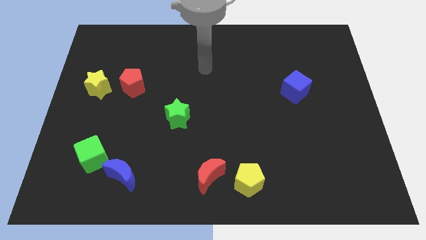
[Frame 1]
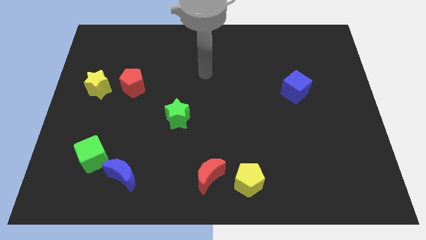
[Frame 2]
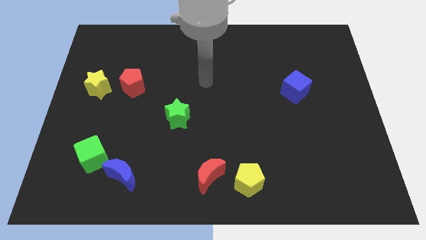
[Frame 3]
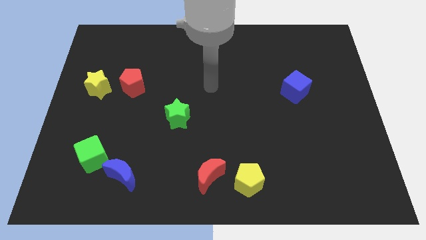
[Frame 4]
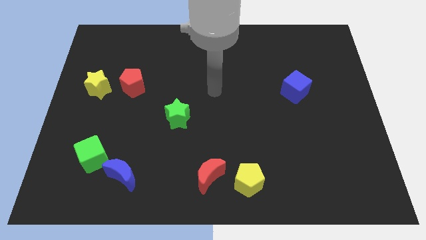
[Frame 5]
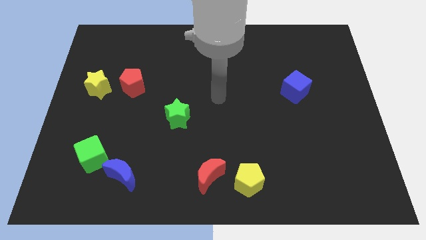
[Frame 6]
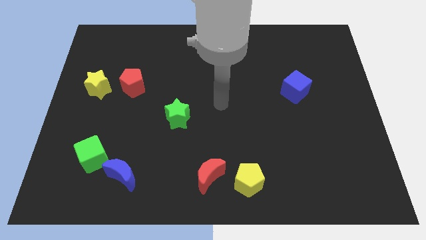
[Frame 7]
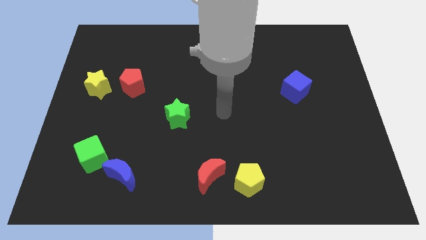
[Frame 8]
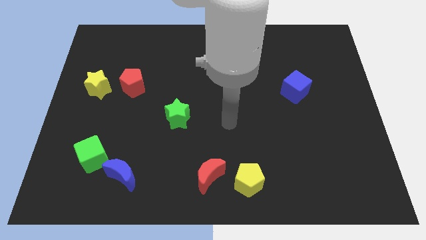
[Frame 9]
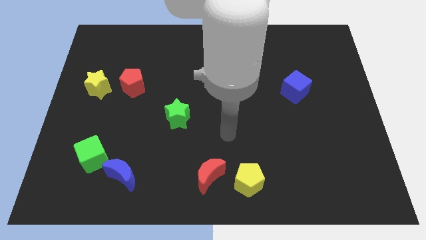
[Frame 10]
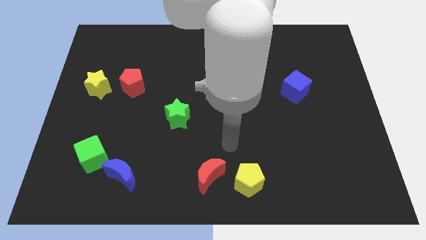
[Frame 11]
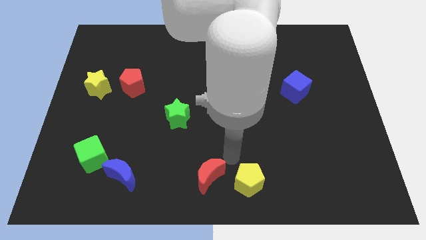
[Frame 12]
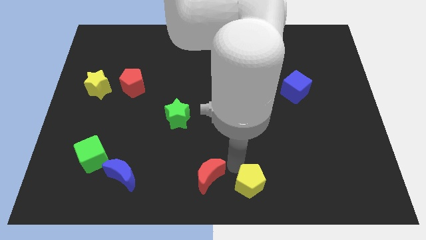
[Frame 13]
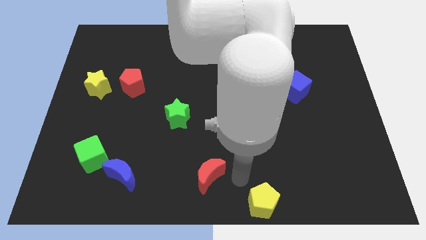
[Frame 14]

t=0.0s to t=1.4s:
move the red moon away from the yellow pentagon

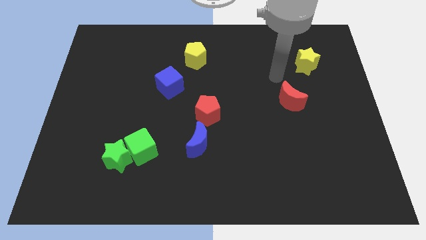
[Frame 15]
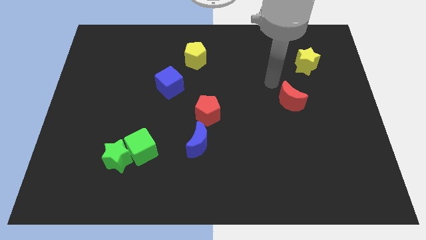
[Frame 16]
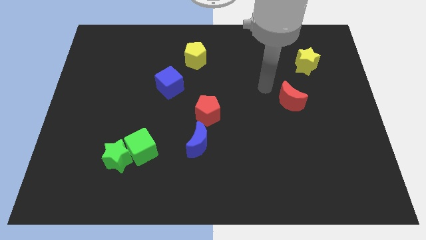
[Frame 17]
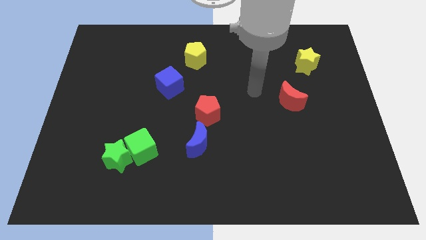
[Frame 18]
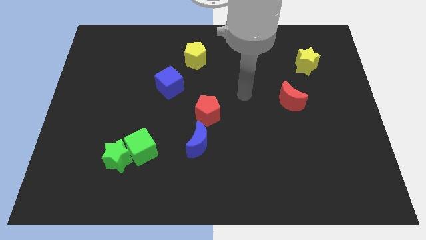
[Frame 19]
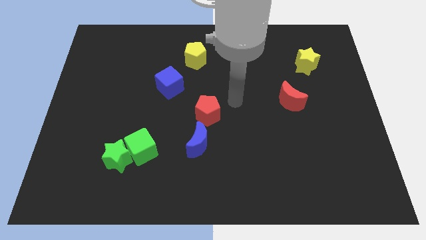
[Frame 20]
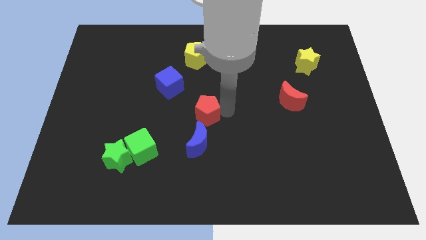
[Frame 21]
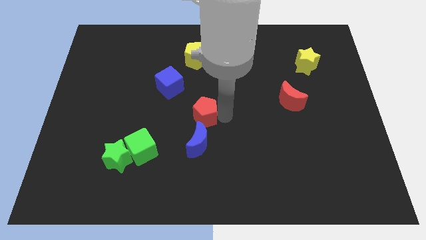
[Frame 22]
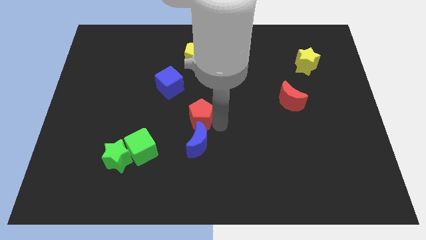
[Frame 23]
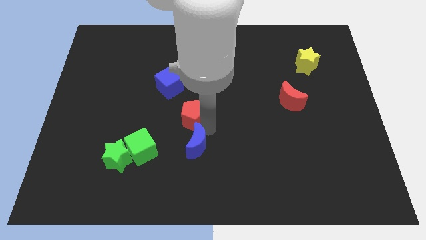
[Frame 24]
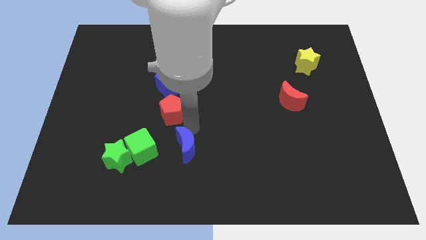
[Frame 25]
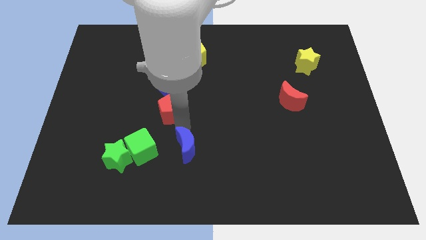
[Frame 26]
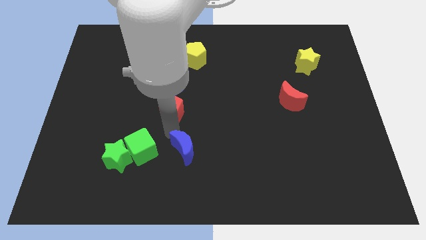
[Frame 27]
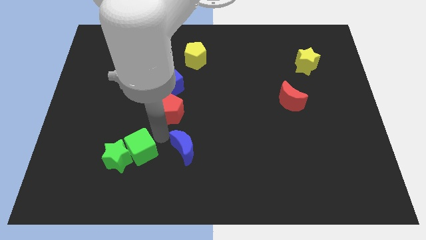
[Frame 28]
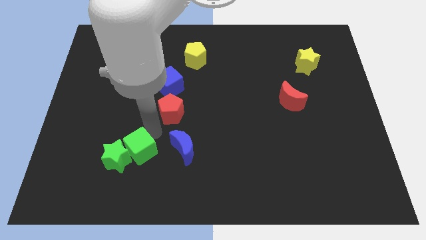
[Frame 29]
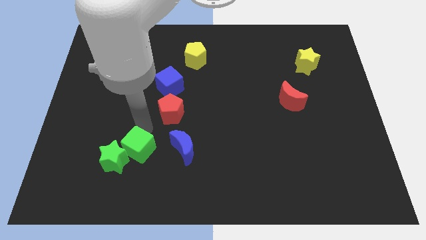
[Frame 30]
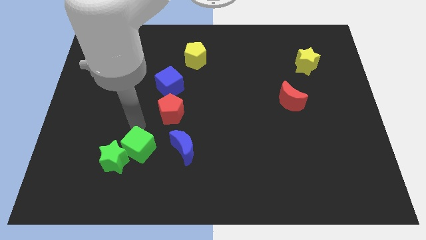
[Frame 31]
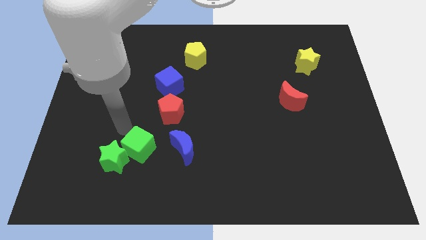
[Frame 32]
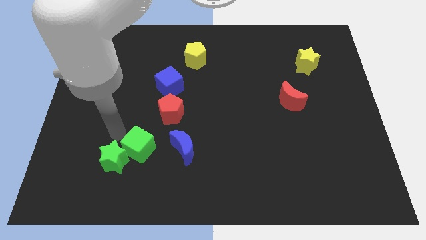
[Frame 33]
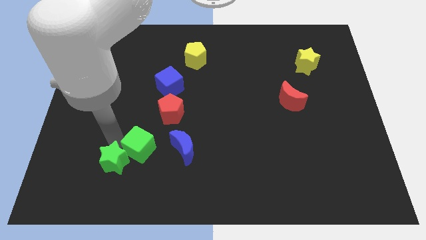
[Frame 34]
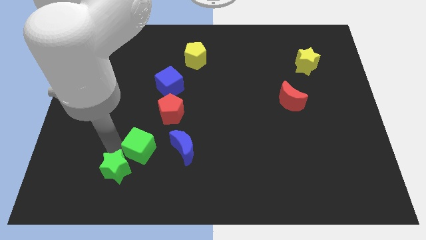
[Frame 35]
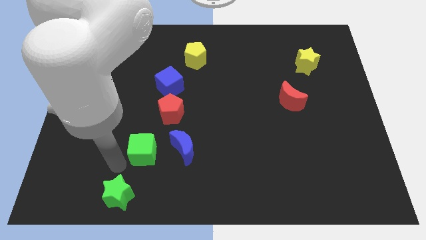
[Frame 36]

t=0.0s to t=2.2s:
move the green cube away from the green star

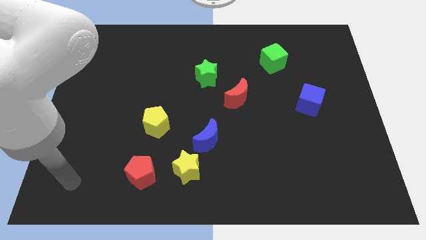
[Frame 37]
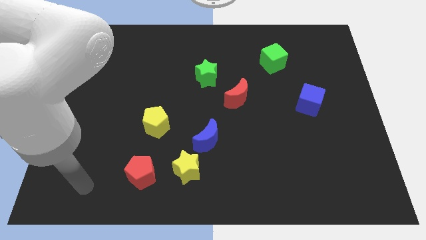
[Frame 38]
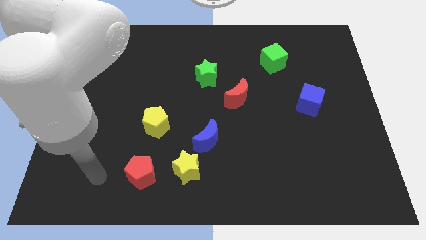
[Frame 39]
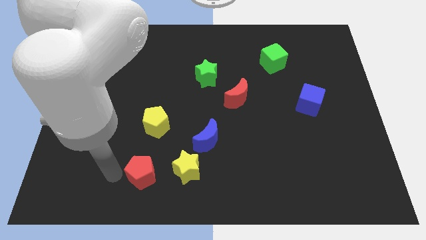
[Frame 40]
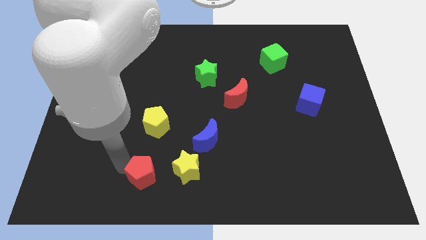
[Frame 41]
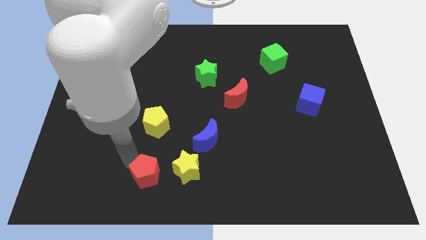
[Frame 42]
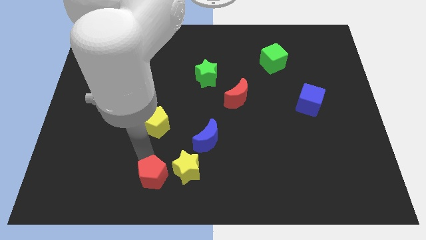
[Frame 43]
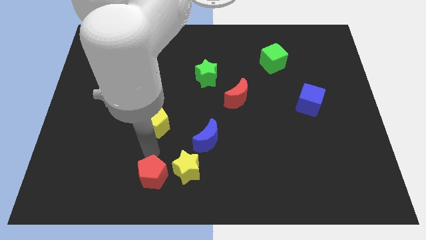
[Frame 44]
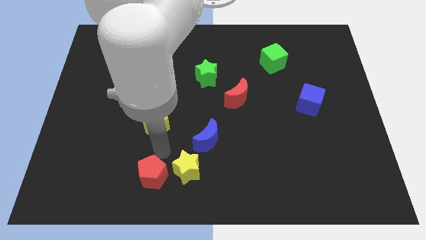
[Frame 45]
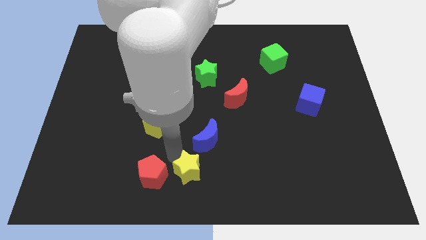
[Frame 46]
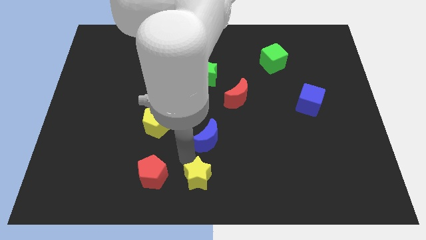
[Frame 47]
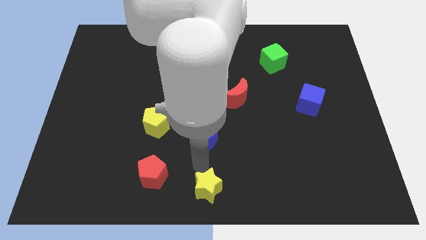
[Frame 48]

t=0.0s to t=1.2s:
separate the blue moon from the yellow star

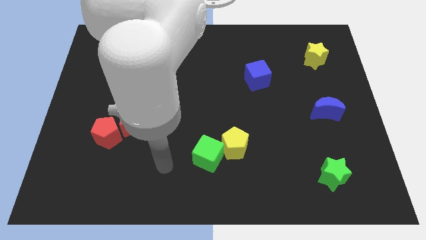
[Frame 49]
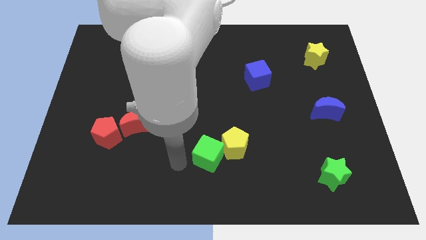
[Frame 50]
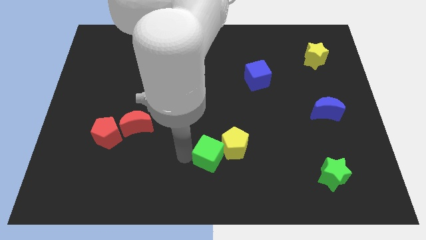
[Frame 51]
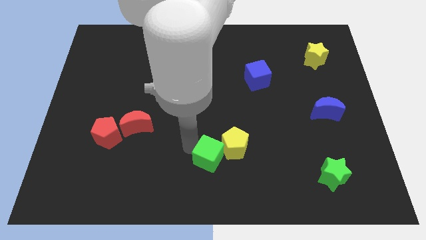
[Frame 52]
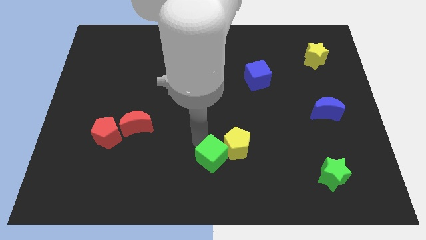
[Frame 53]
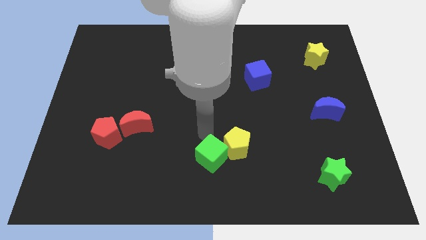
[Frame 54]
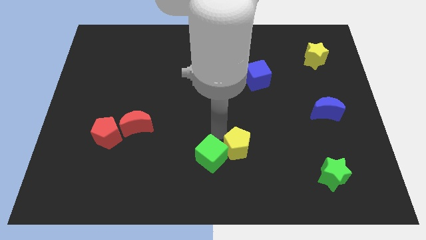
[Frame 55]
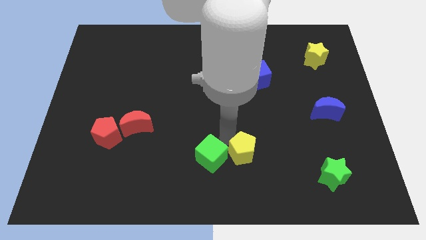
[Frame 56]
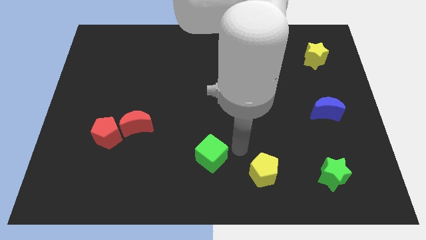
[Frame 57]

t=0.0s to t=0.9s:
separate the green cube from the yellow pentagon

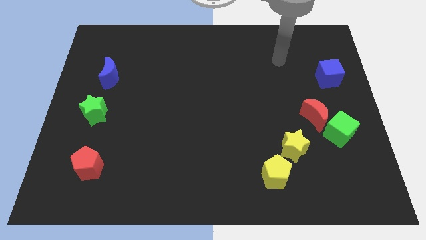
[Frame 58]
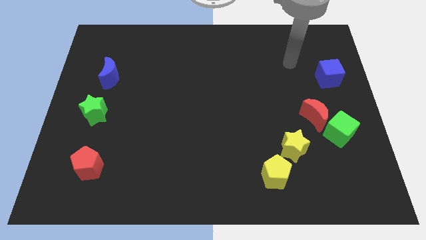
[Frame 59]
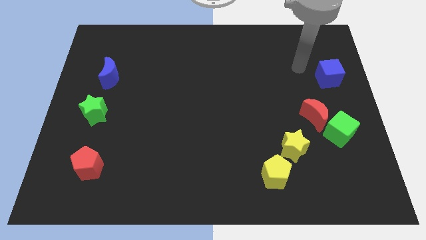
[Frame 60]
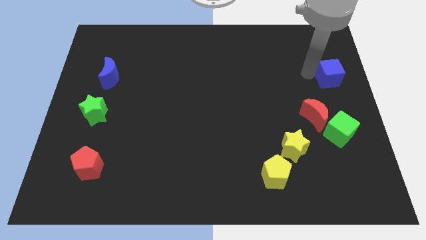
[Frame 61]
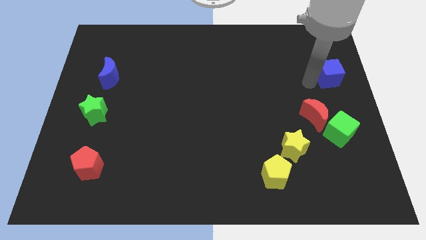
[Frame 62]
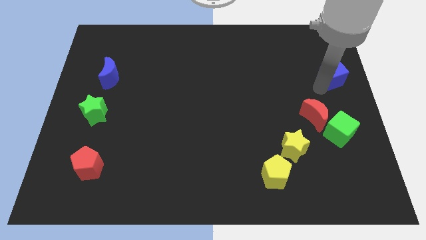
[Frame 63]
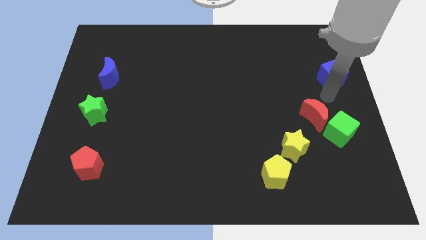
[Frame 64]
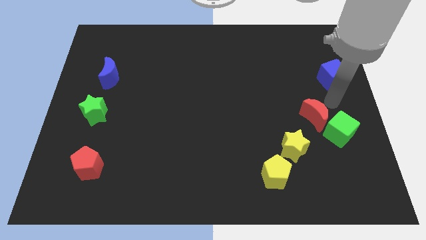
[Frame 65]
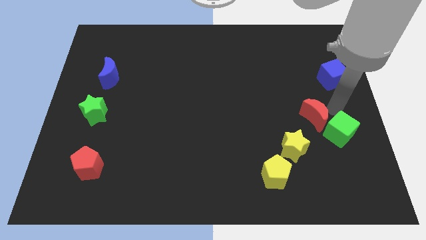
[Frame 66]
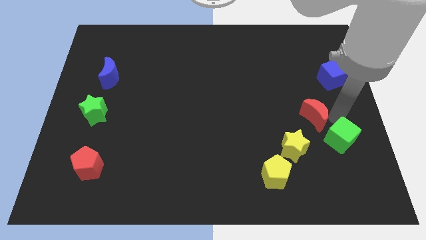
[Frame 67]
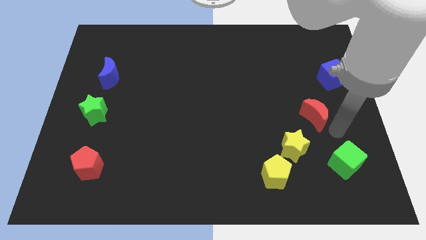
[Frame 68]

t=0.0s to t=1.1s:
move the red moon away from the green cube

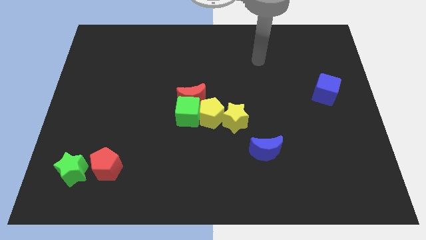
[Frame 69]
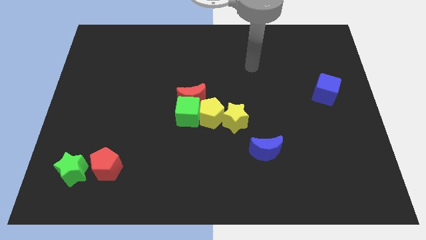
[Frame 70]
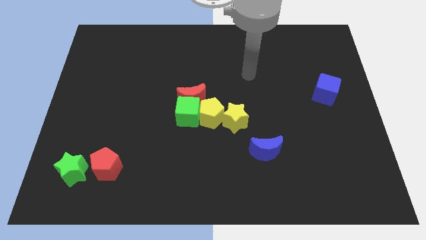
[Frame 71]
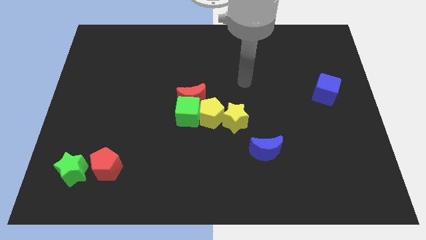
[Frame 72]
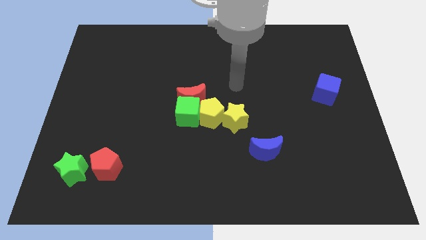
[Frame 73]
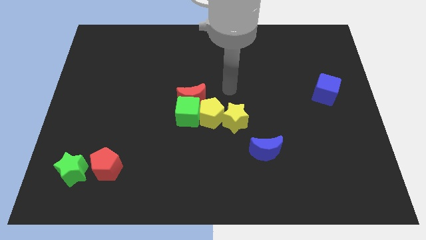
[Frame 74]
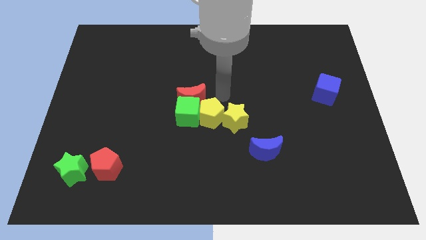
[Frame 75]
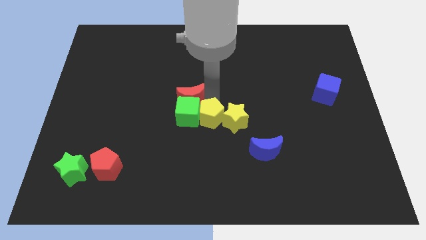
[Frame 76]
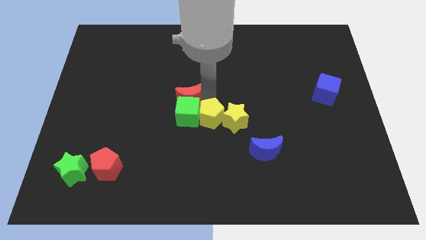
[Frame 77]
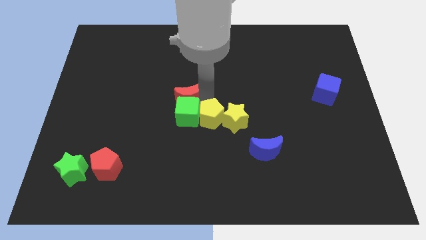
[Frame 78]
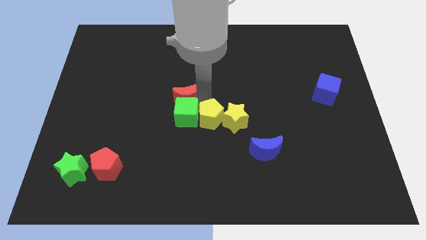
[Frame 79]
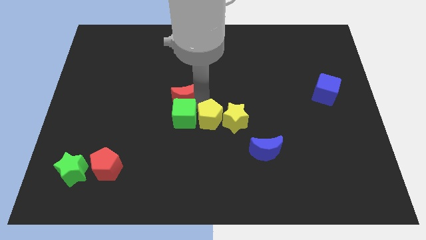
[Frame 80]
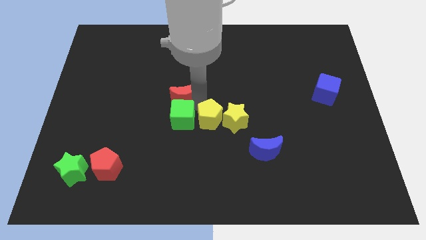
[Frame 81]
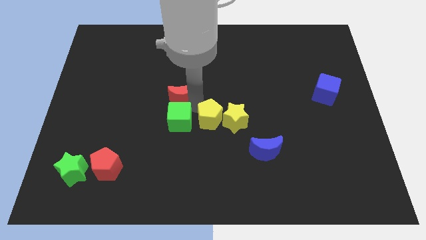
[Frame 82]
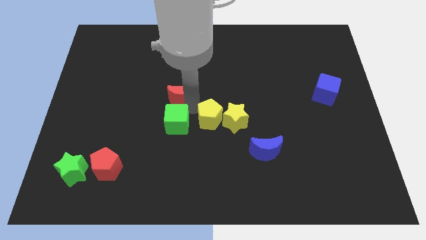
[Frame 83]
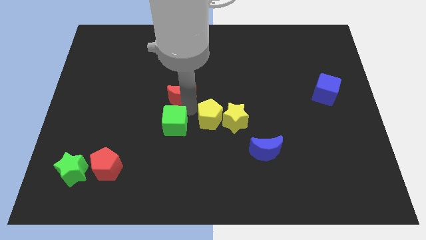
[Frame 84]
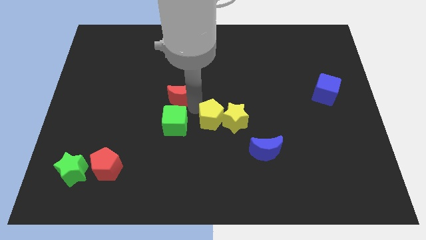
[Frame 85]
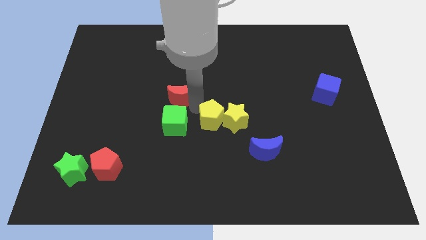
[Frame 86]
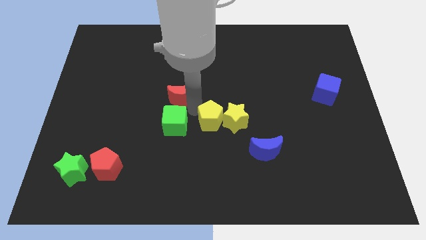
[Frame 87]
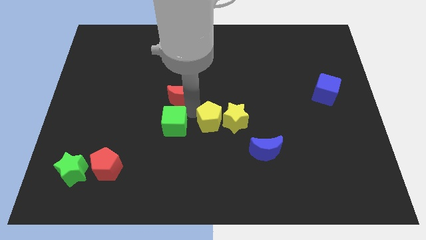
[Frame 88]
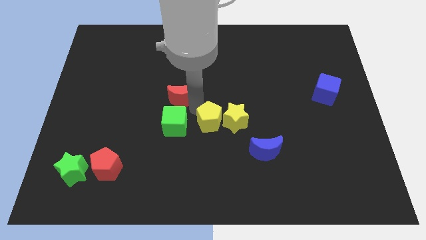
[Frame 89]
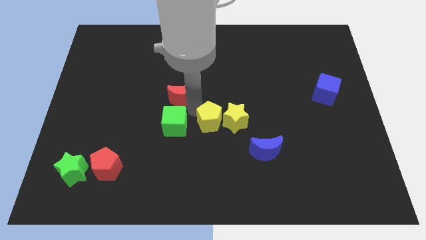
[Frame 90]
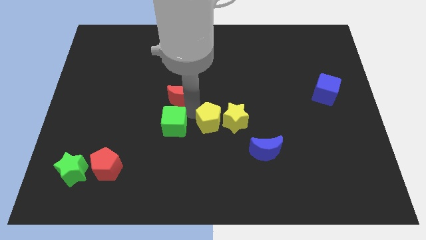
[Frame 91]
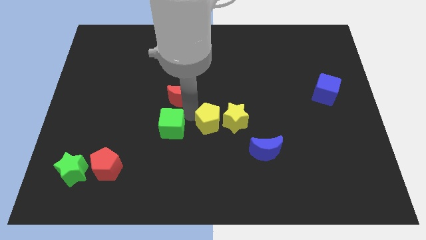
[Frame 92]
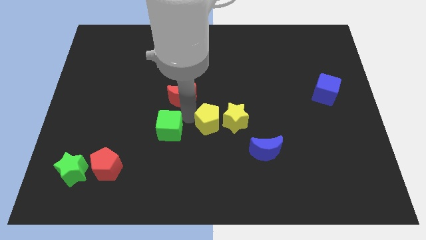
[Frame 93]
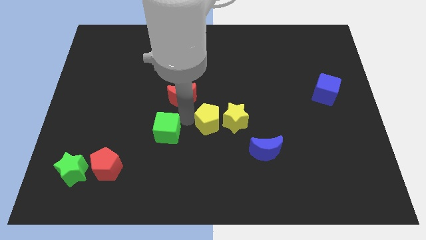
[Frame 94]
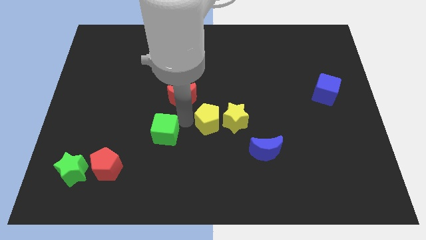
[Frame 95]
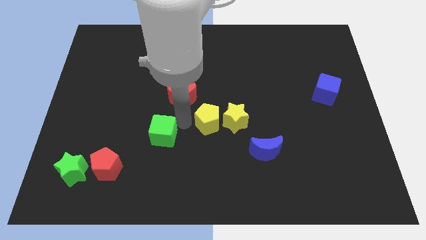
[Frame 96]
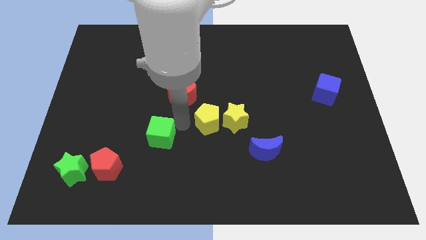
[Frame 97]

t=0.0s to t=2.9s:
separate the green cube from the red moon and yellow pentagon
